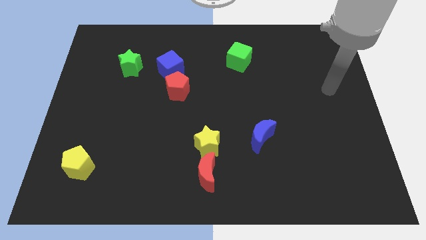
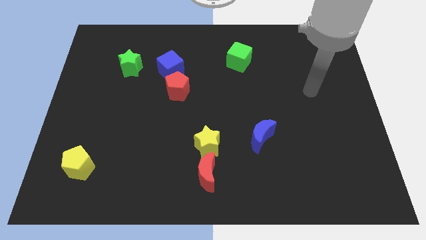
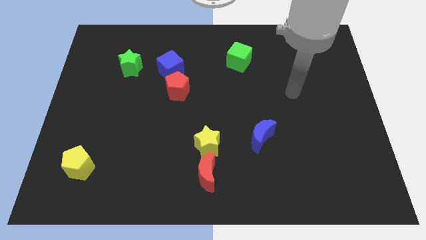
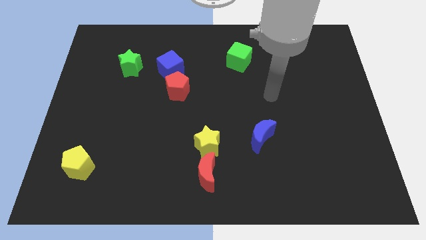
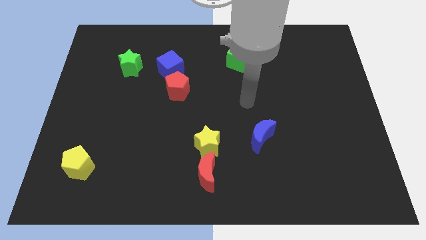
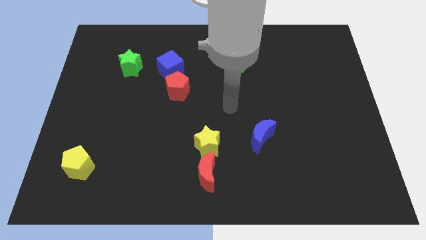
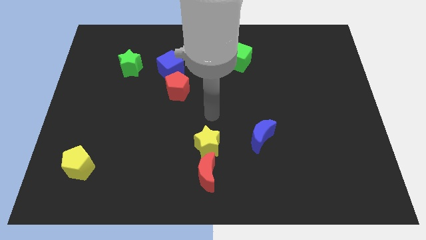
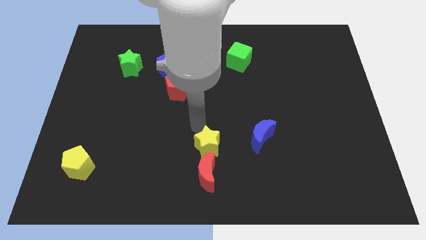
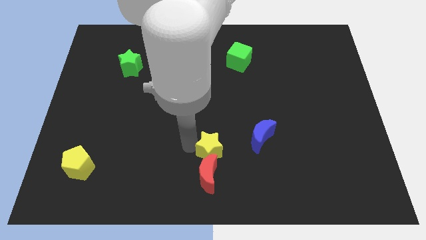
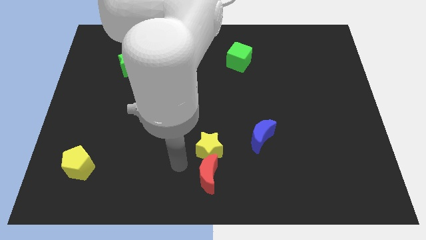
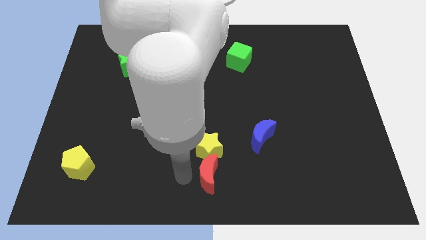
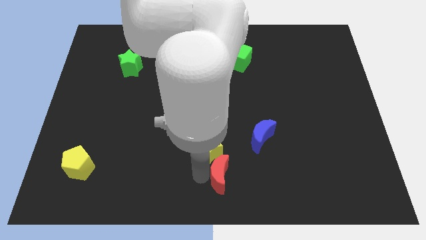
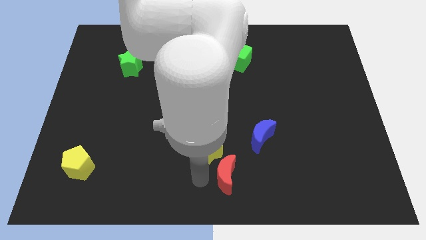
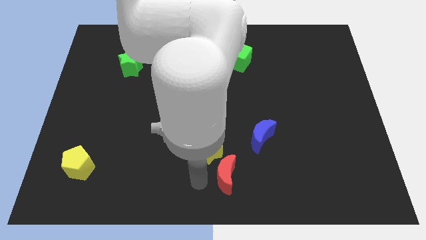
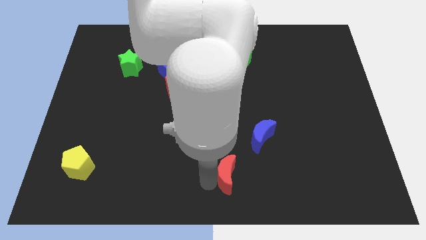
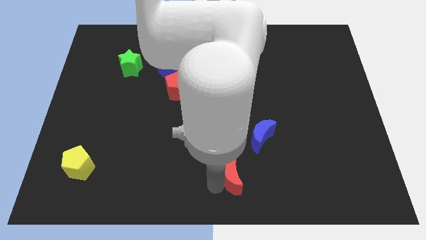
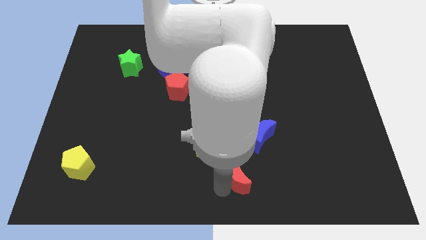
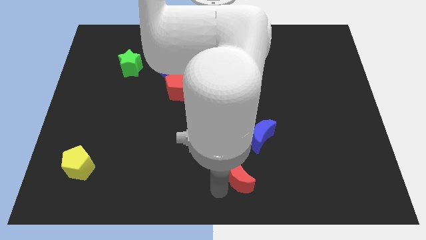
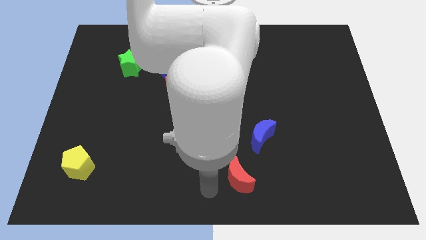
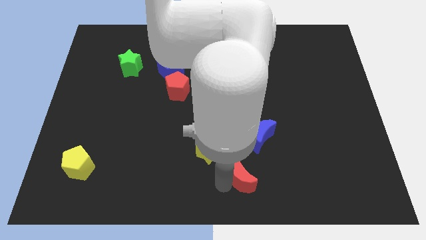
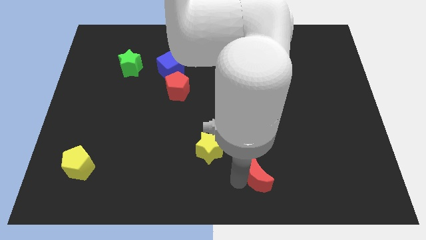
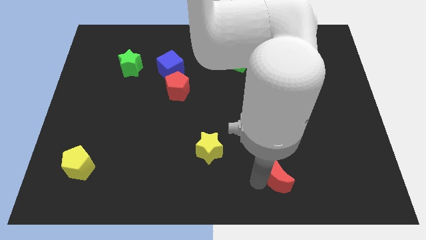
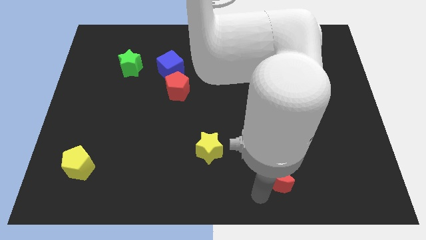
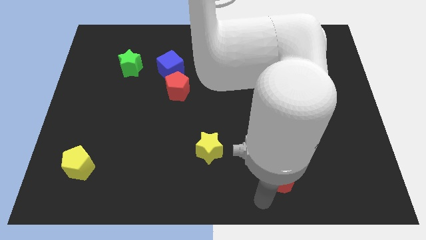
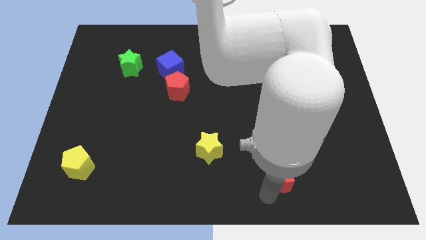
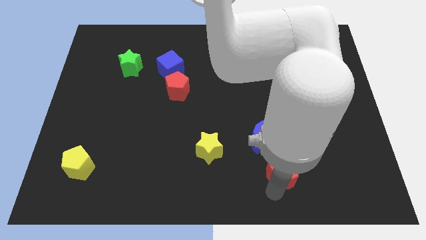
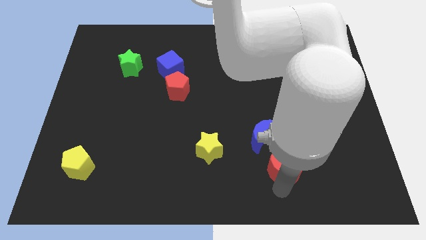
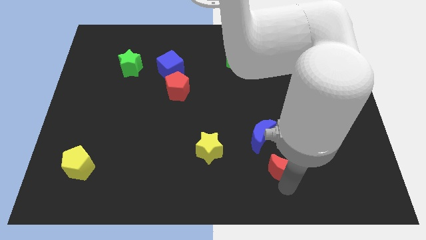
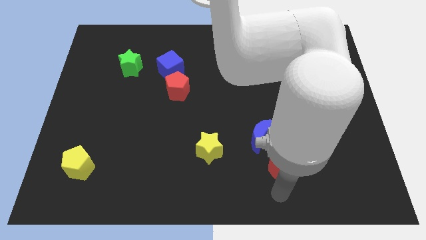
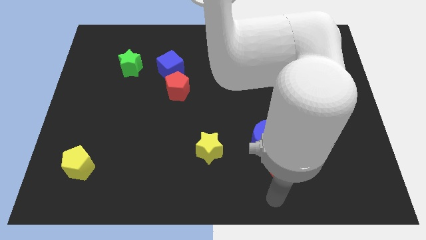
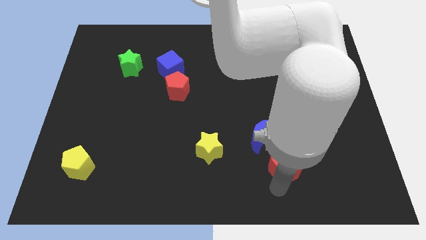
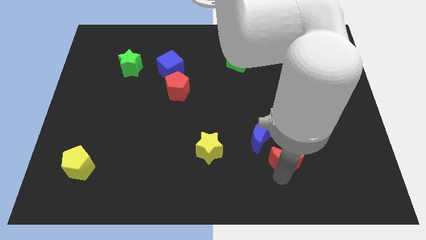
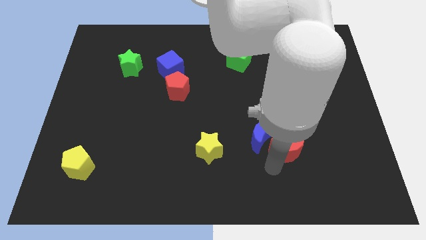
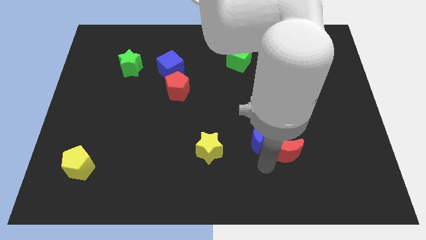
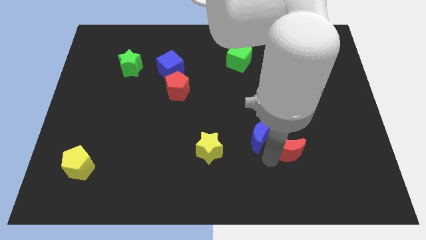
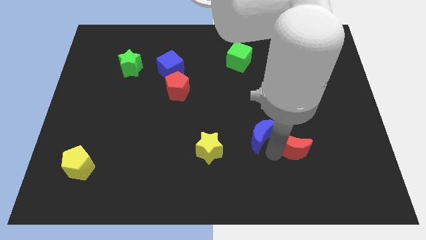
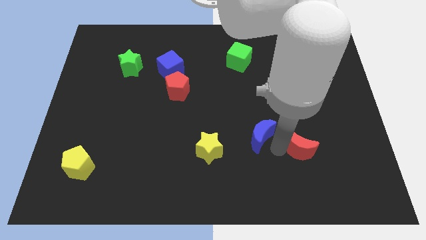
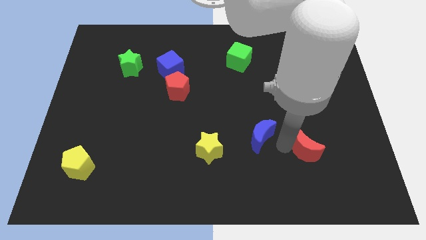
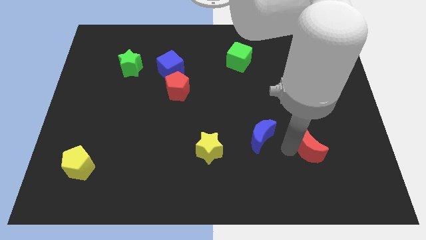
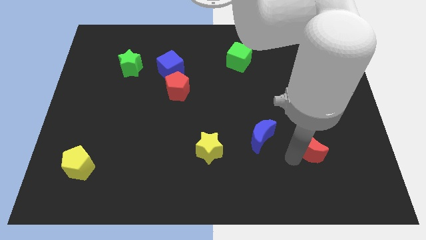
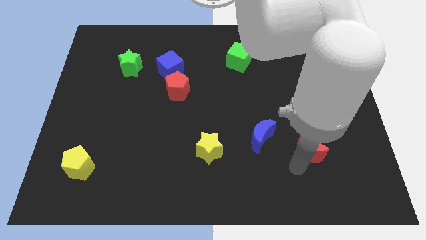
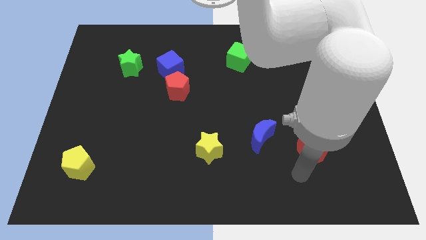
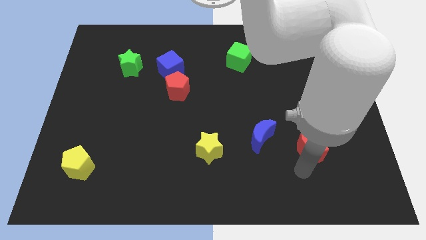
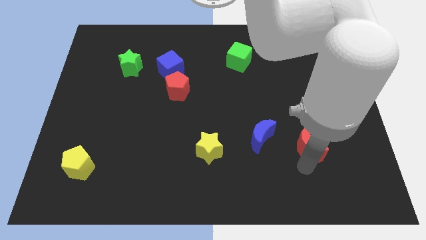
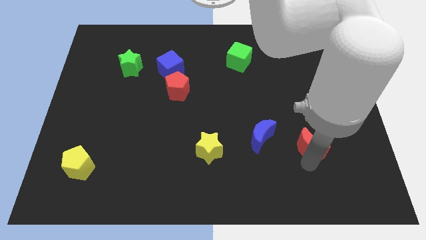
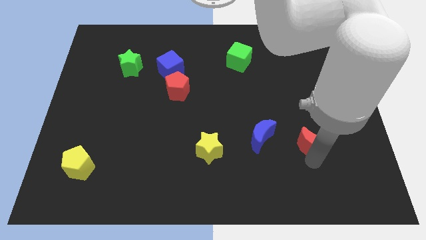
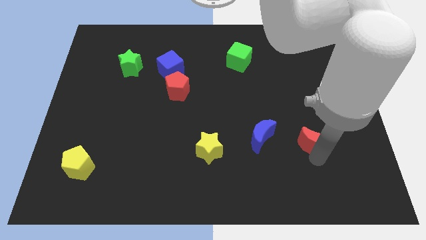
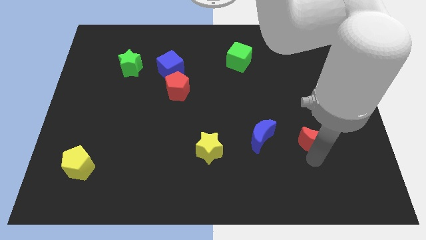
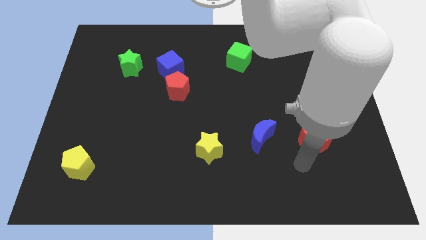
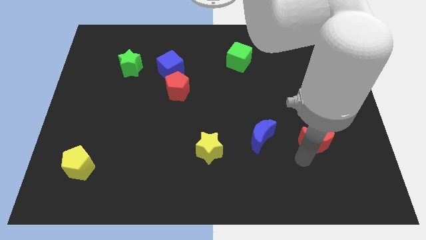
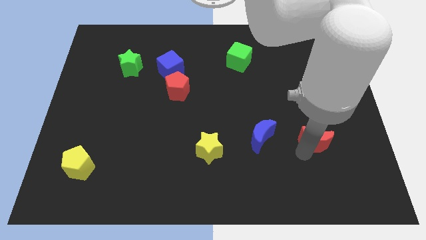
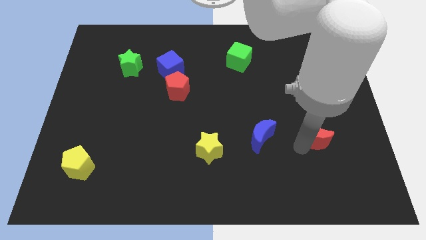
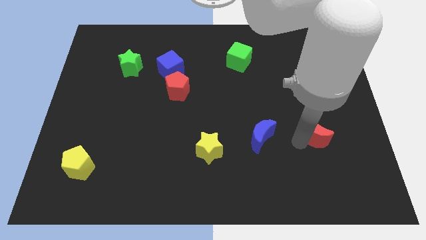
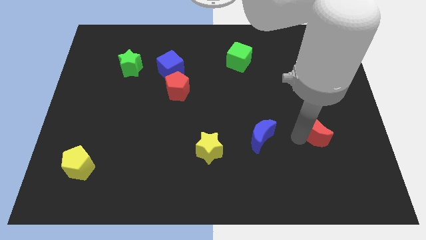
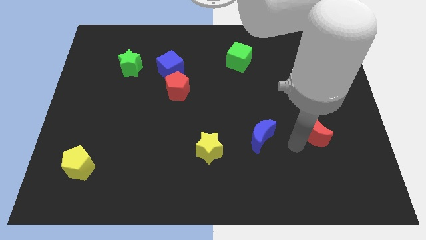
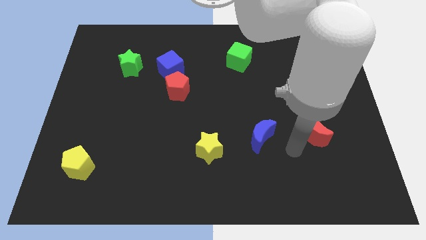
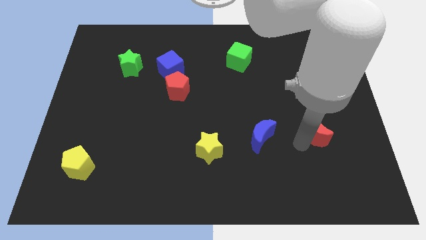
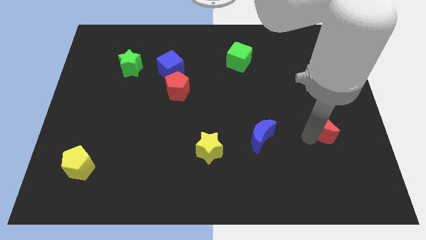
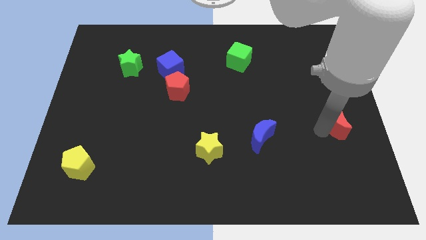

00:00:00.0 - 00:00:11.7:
move the red moon to the right side of the board

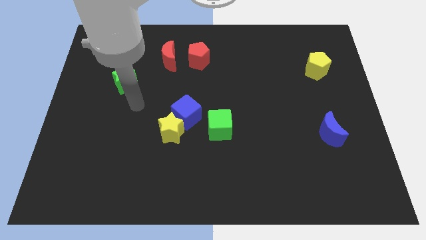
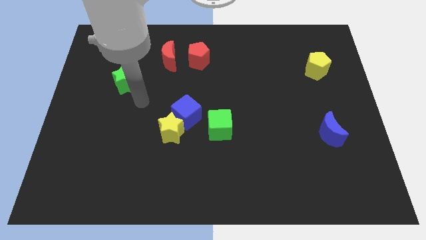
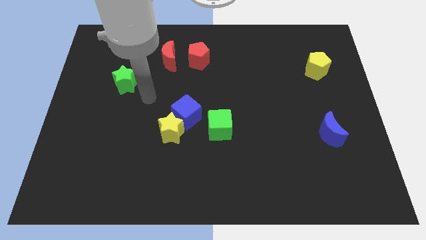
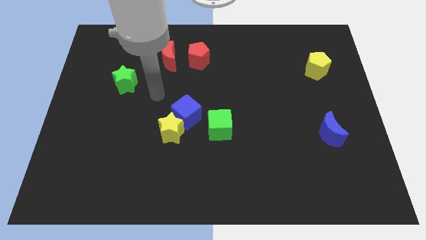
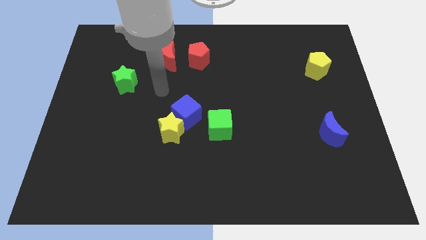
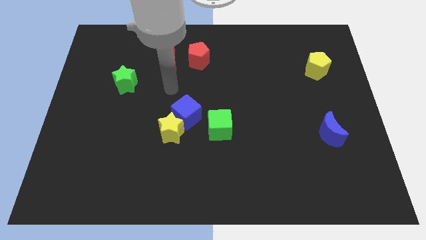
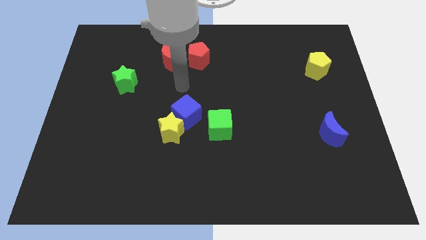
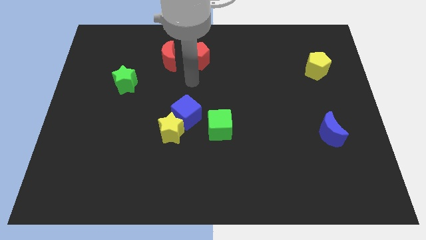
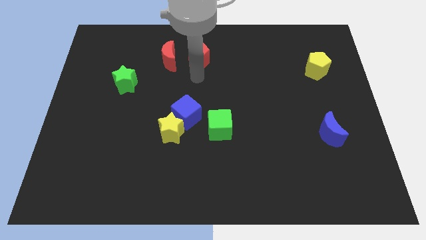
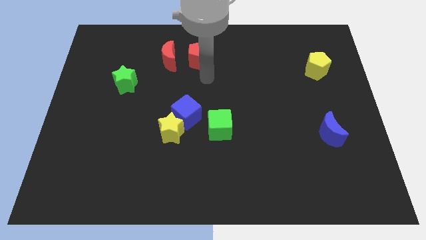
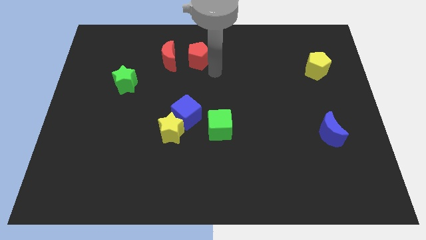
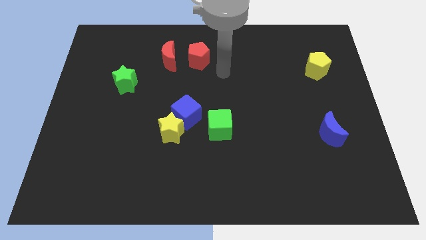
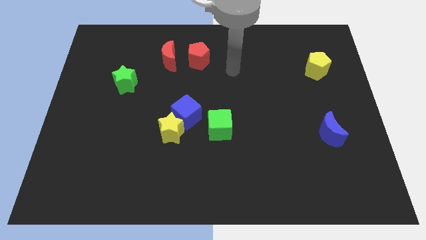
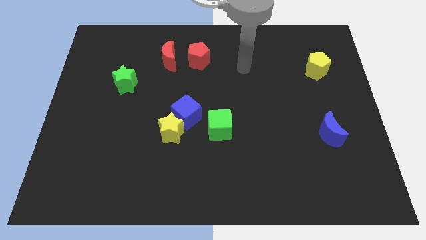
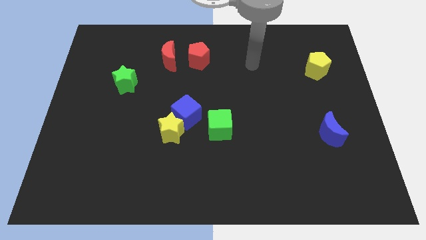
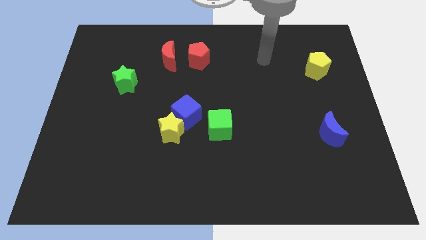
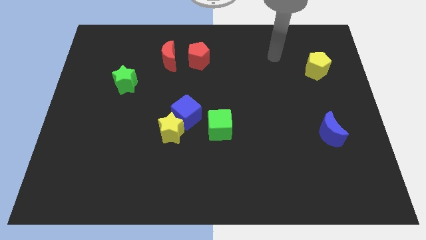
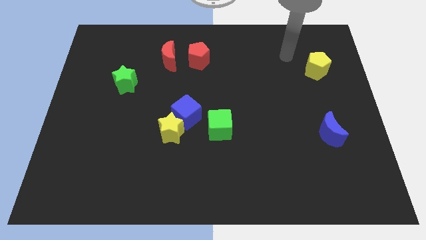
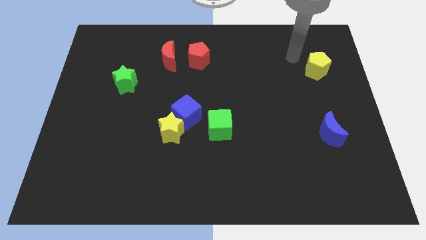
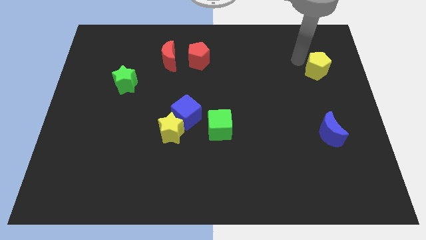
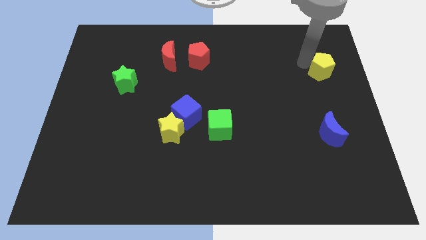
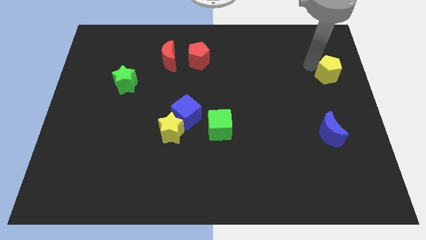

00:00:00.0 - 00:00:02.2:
put the yellow pentagon to the center right
